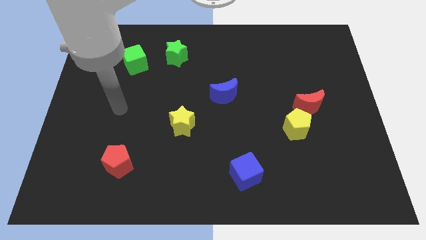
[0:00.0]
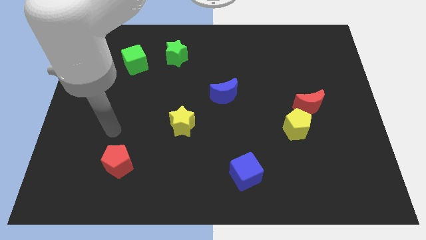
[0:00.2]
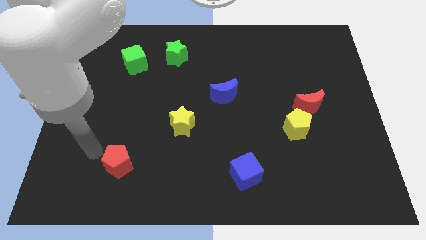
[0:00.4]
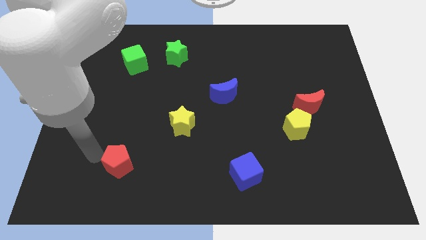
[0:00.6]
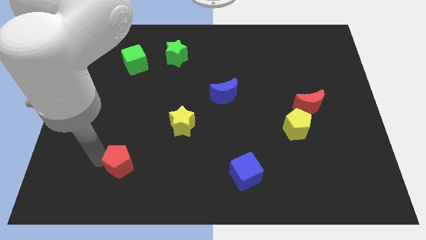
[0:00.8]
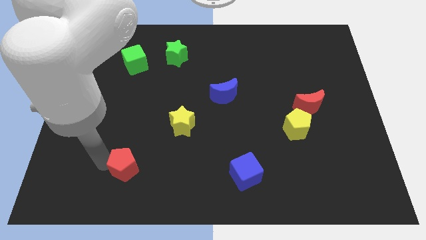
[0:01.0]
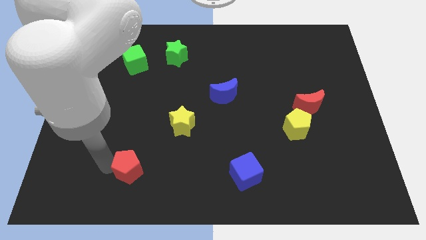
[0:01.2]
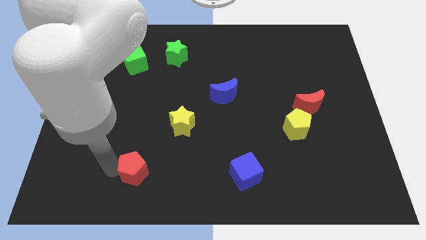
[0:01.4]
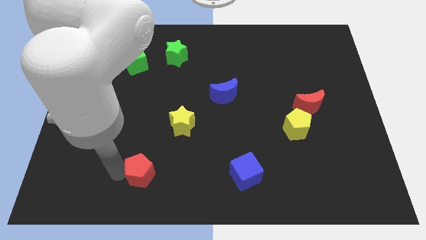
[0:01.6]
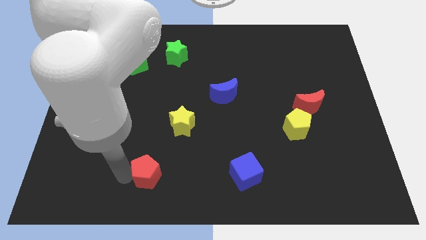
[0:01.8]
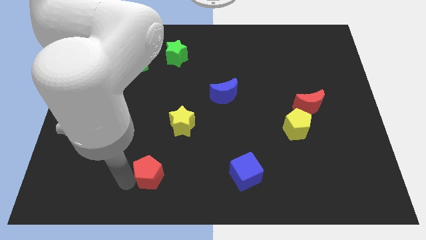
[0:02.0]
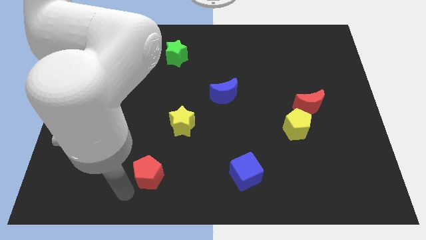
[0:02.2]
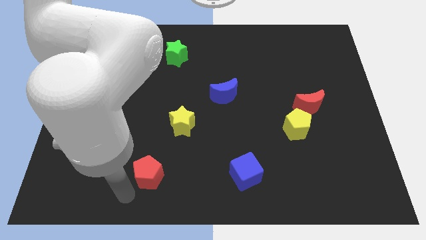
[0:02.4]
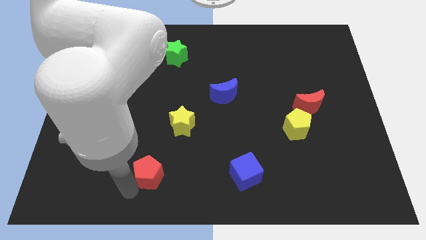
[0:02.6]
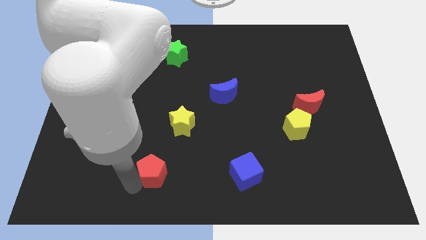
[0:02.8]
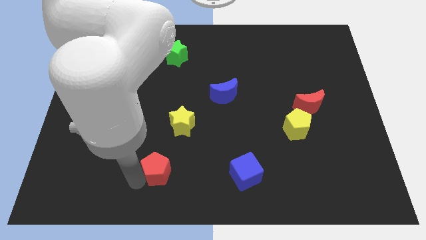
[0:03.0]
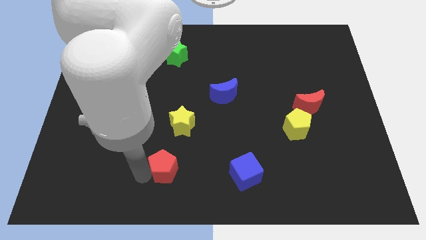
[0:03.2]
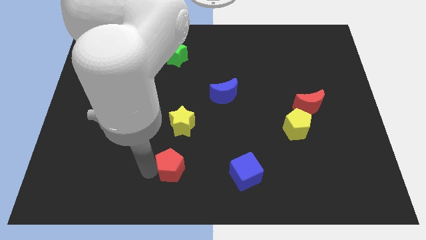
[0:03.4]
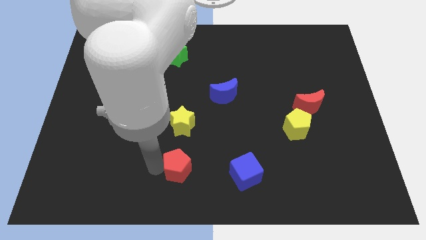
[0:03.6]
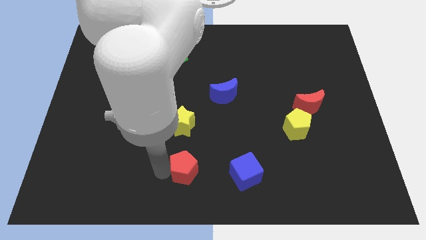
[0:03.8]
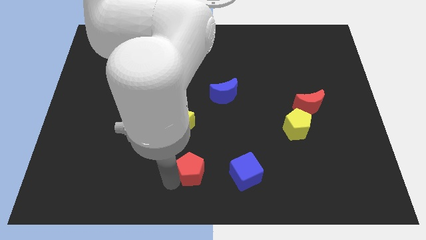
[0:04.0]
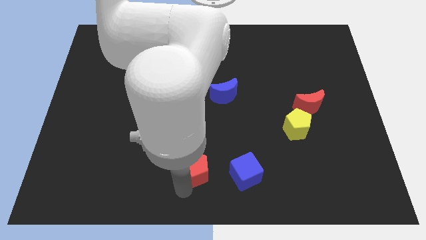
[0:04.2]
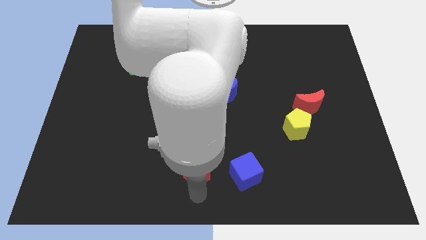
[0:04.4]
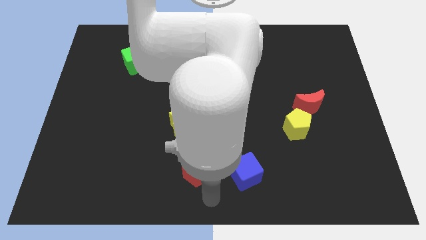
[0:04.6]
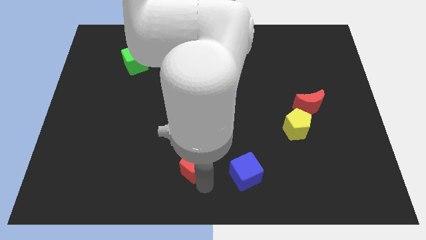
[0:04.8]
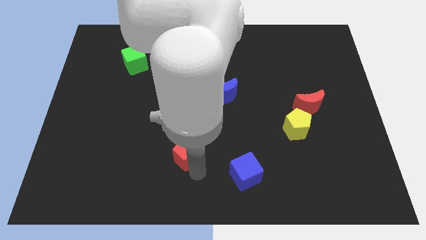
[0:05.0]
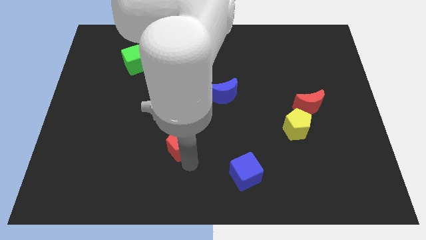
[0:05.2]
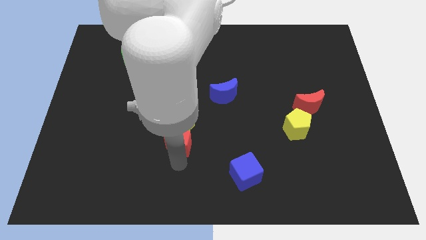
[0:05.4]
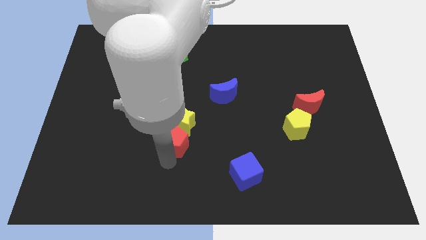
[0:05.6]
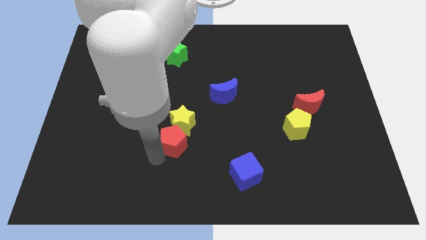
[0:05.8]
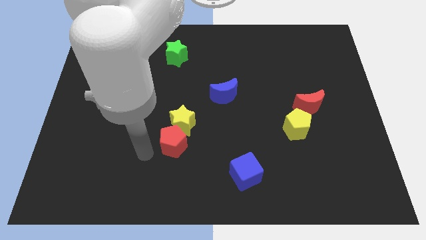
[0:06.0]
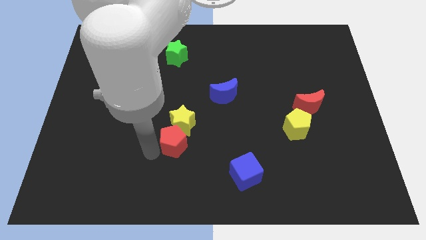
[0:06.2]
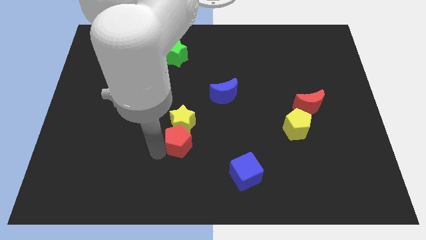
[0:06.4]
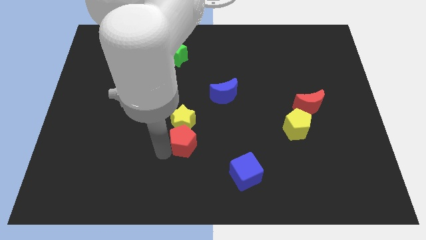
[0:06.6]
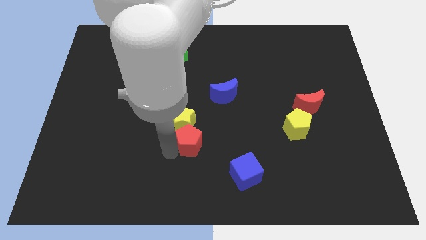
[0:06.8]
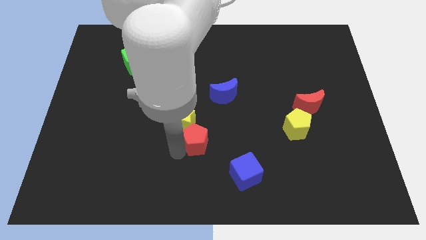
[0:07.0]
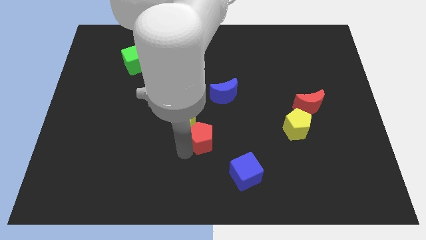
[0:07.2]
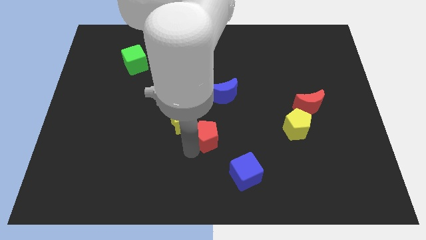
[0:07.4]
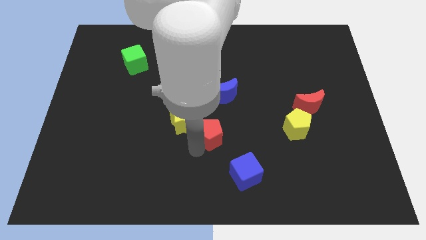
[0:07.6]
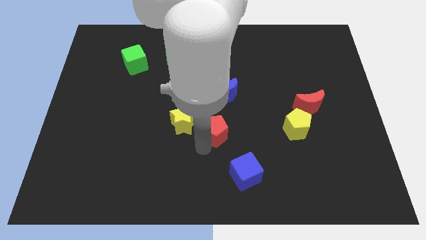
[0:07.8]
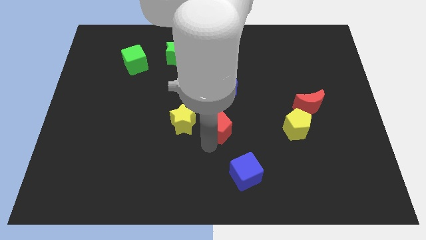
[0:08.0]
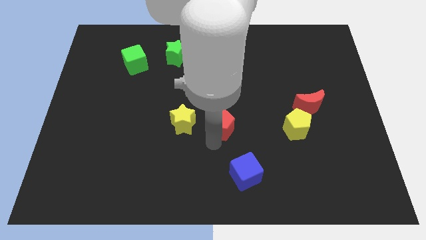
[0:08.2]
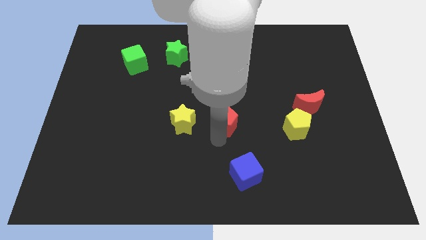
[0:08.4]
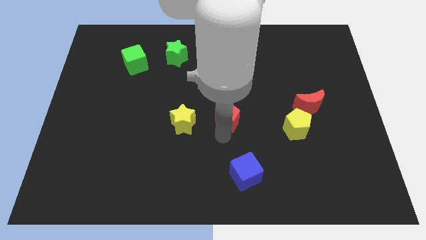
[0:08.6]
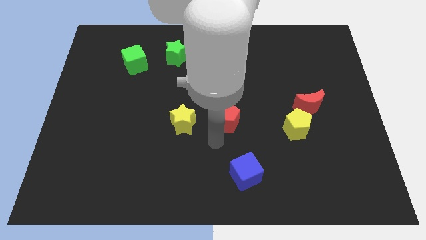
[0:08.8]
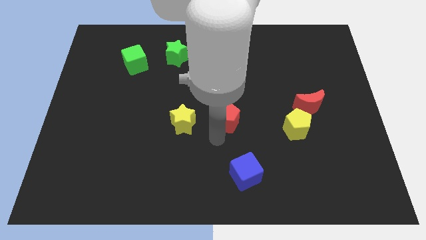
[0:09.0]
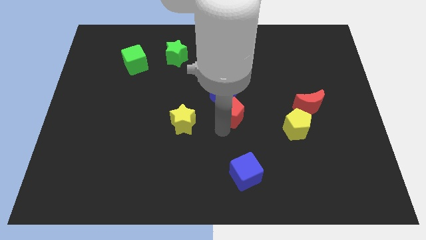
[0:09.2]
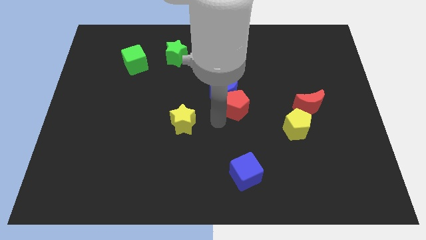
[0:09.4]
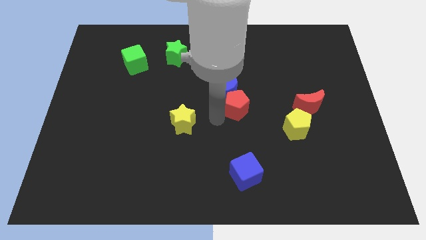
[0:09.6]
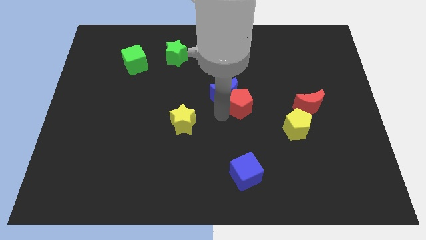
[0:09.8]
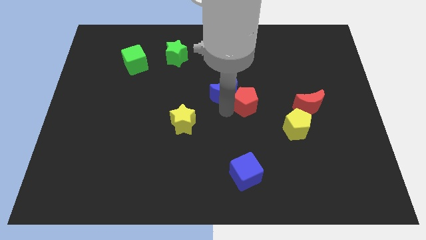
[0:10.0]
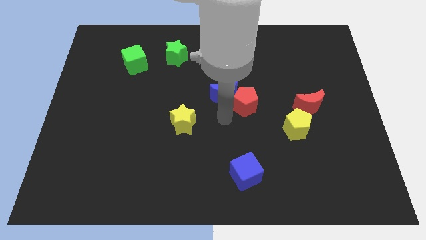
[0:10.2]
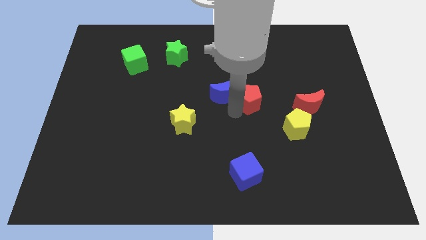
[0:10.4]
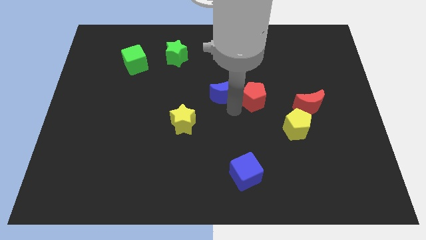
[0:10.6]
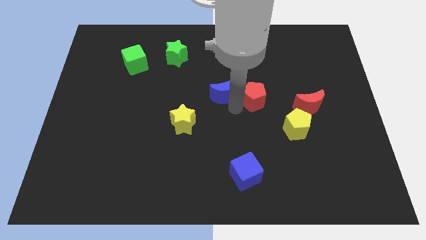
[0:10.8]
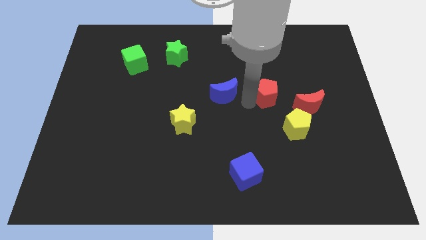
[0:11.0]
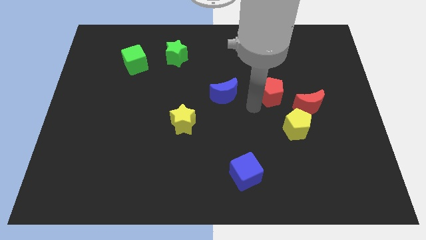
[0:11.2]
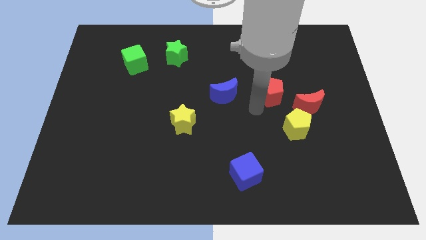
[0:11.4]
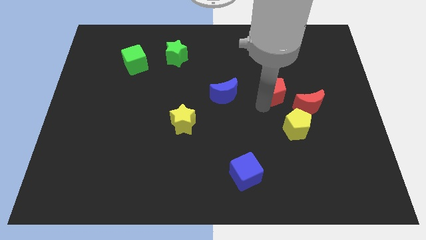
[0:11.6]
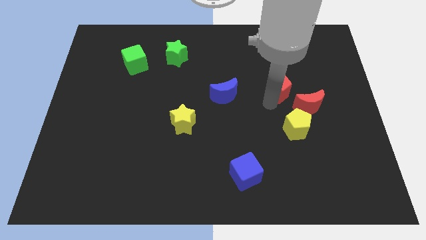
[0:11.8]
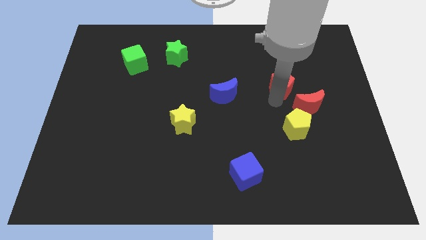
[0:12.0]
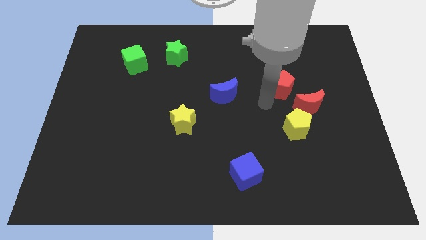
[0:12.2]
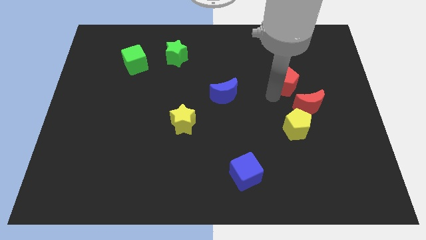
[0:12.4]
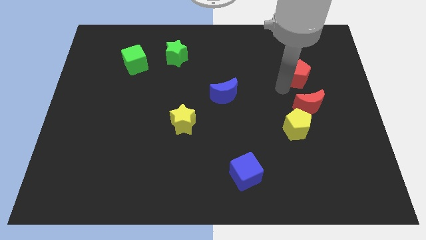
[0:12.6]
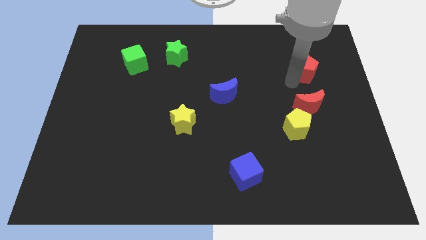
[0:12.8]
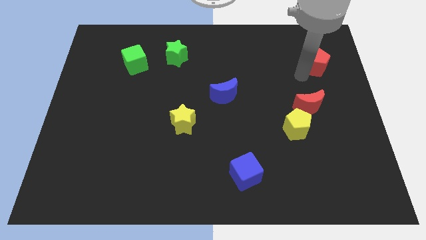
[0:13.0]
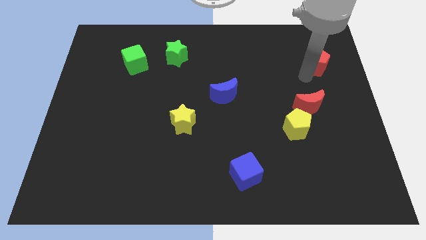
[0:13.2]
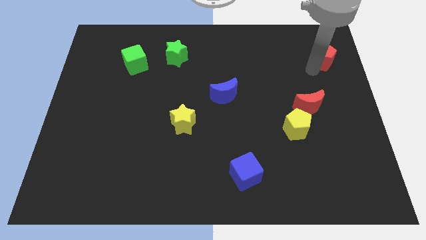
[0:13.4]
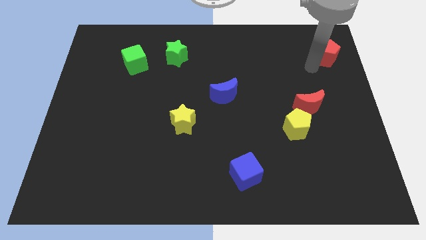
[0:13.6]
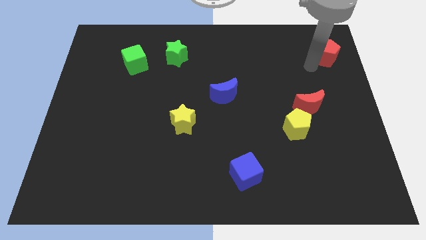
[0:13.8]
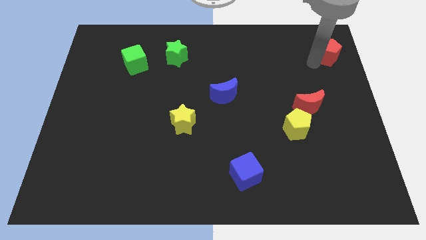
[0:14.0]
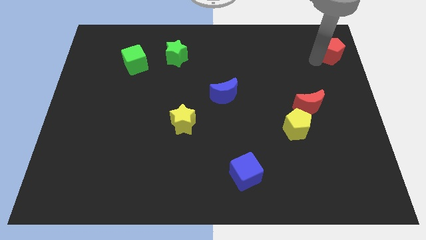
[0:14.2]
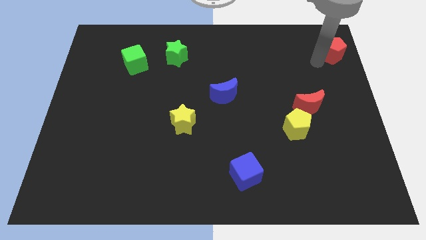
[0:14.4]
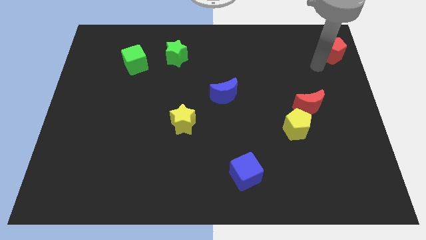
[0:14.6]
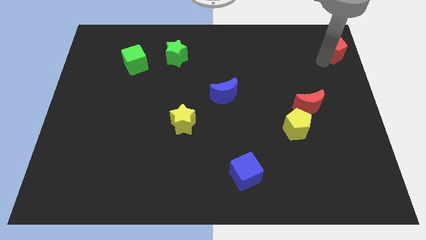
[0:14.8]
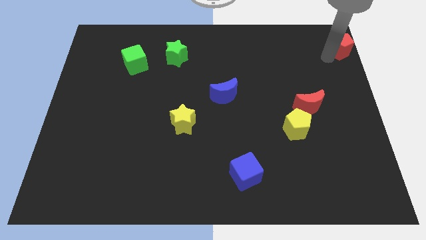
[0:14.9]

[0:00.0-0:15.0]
move the red pentagon to the upper right corner
